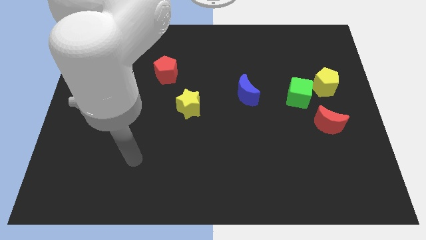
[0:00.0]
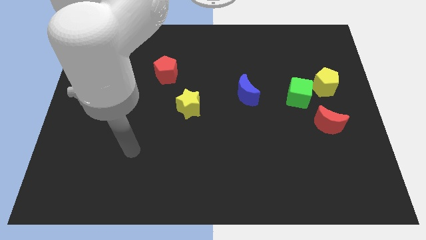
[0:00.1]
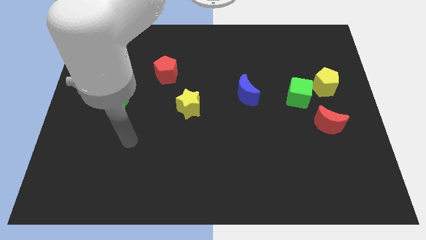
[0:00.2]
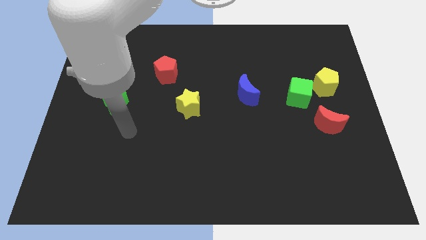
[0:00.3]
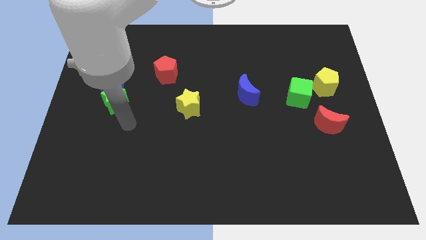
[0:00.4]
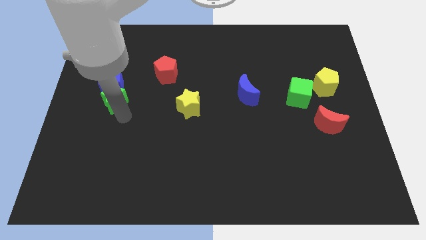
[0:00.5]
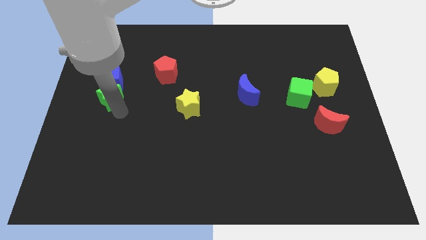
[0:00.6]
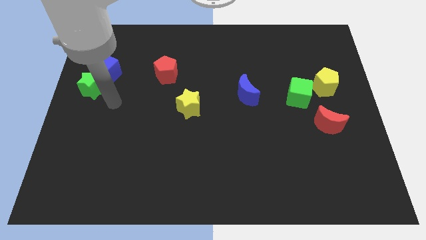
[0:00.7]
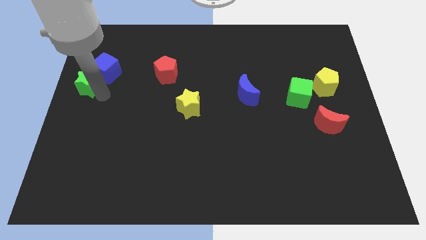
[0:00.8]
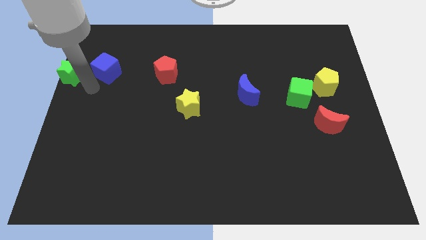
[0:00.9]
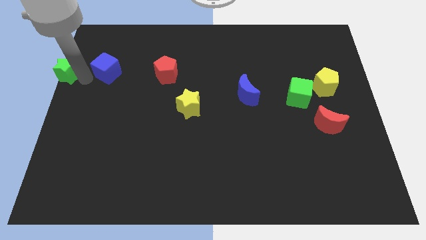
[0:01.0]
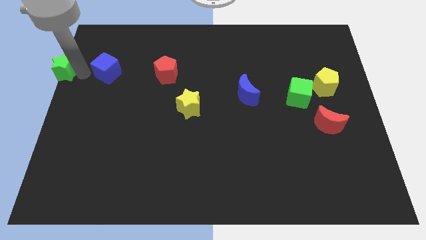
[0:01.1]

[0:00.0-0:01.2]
move the blue cube away from the green star

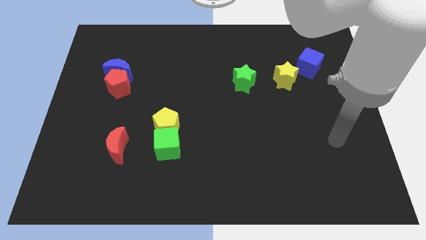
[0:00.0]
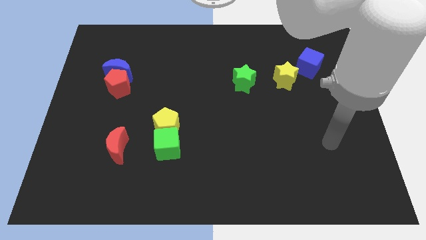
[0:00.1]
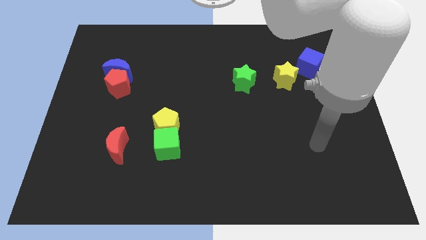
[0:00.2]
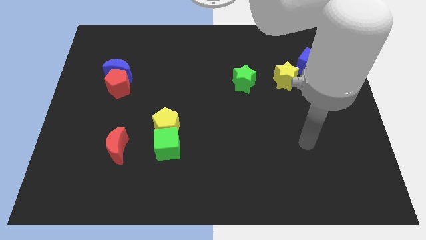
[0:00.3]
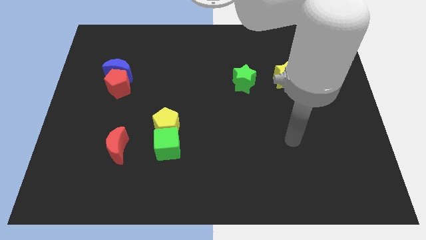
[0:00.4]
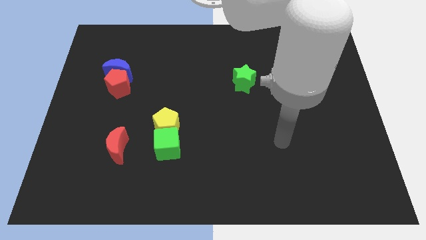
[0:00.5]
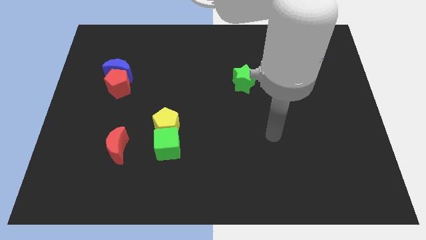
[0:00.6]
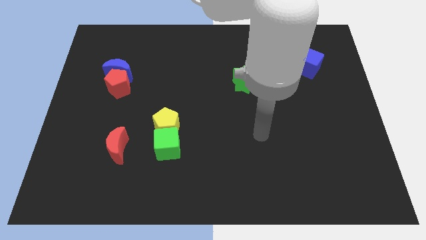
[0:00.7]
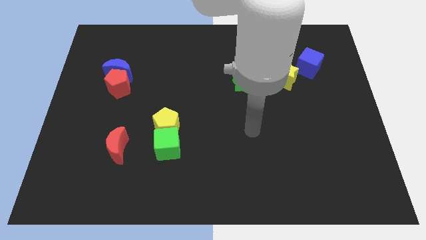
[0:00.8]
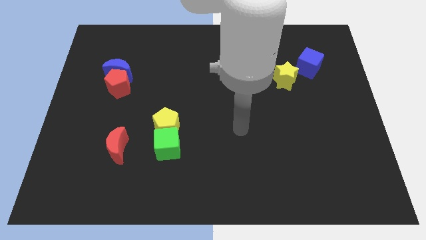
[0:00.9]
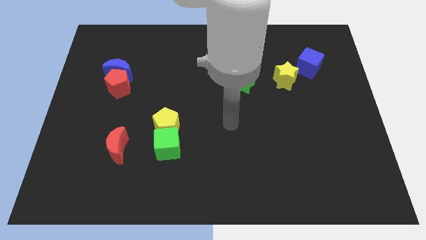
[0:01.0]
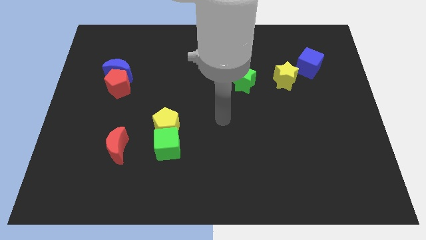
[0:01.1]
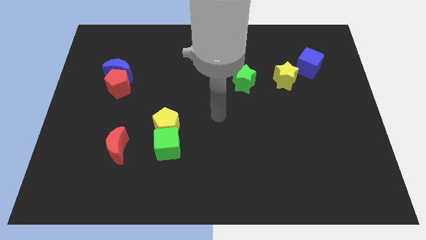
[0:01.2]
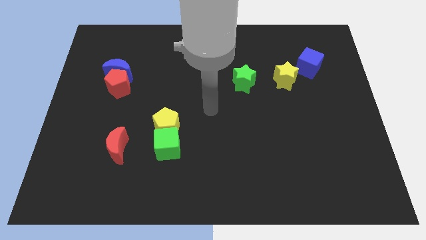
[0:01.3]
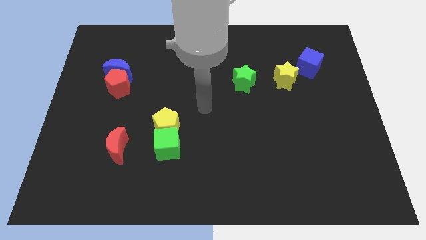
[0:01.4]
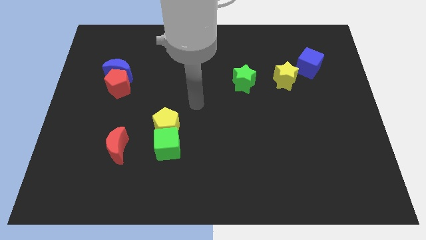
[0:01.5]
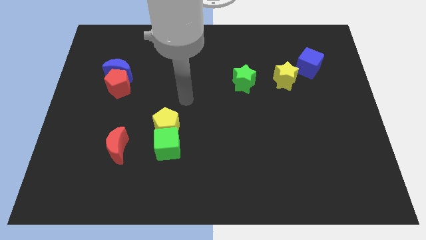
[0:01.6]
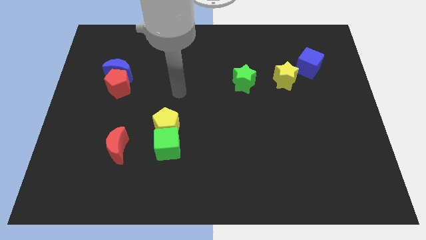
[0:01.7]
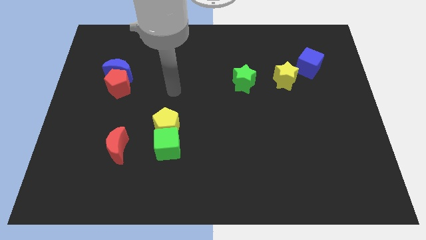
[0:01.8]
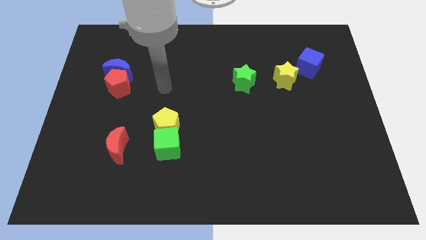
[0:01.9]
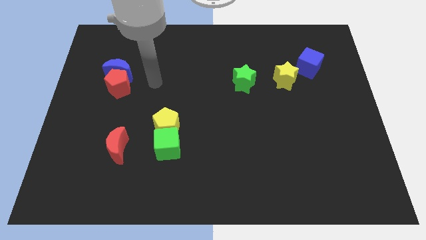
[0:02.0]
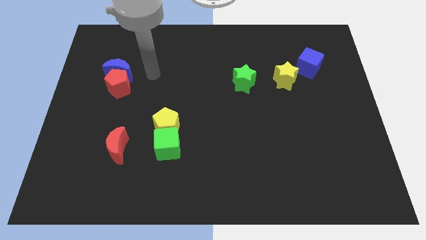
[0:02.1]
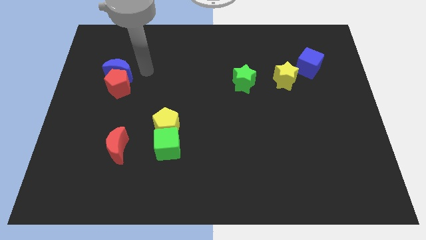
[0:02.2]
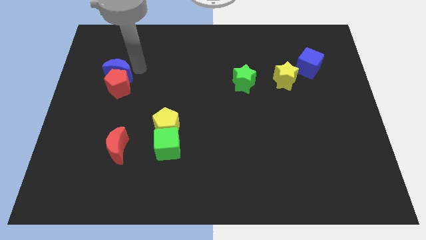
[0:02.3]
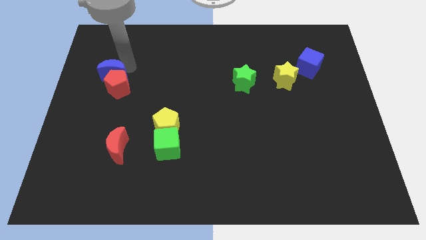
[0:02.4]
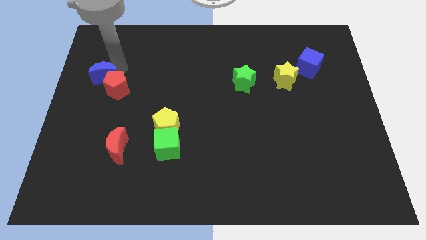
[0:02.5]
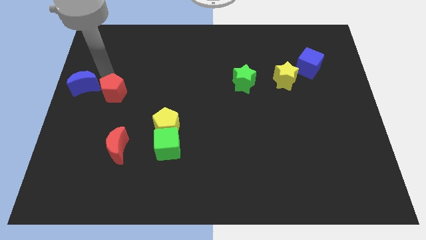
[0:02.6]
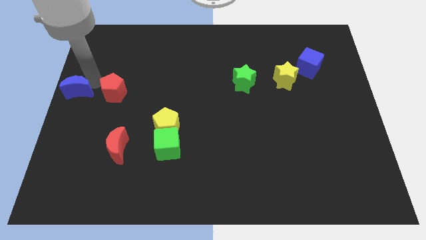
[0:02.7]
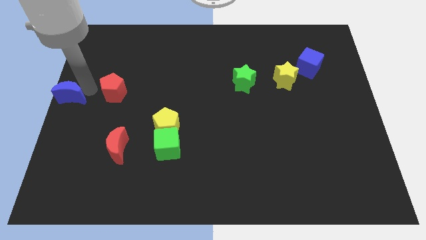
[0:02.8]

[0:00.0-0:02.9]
pull the red pentagon apart from the blue moon

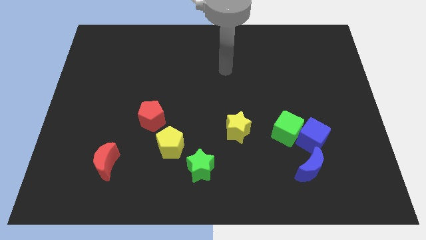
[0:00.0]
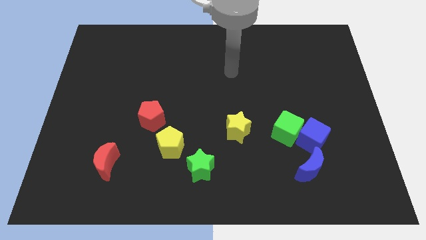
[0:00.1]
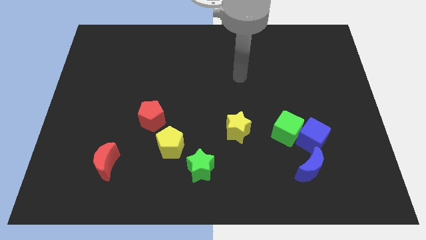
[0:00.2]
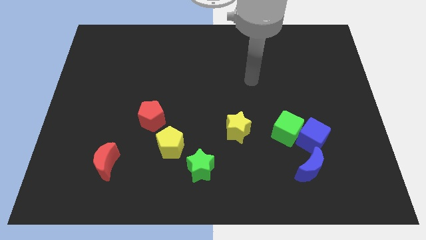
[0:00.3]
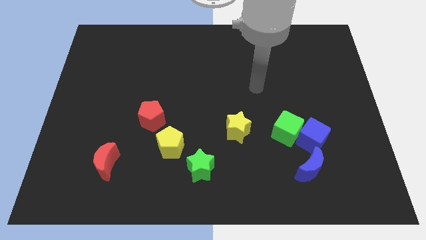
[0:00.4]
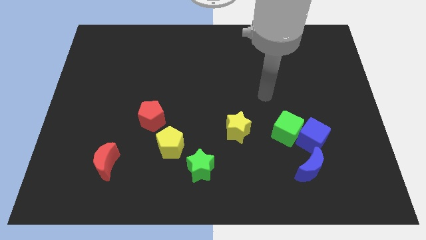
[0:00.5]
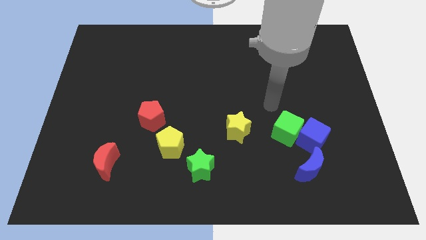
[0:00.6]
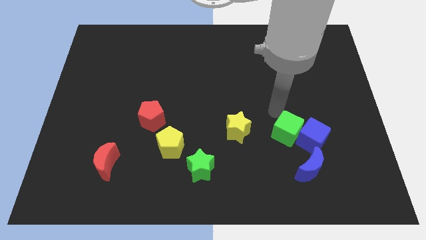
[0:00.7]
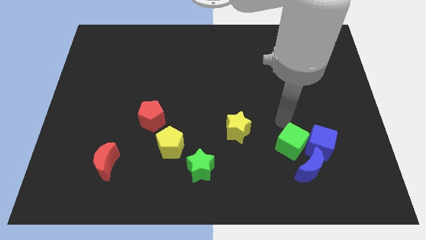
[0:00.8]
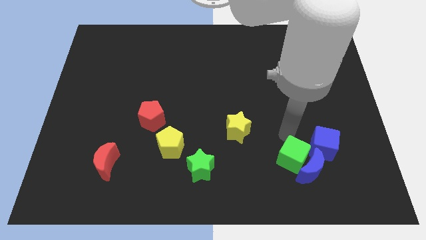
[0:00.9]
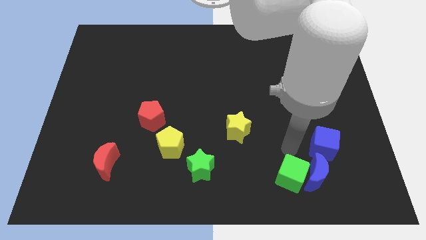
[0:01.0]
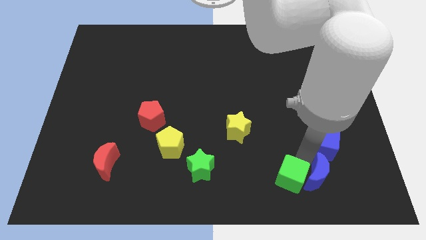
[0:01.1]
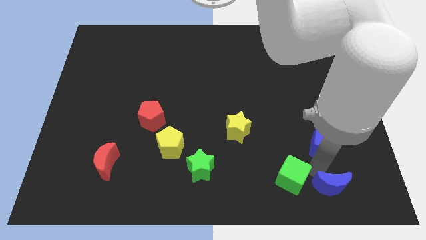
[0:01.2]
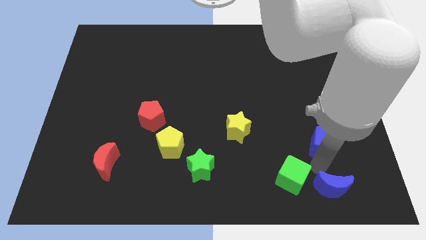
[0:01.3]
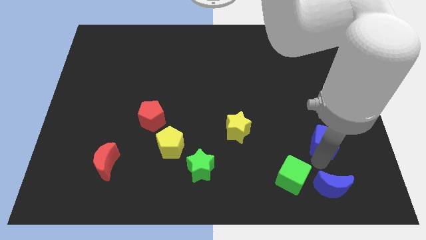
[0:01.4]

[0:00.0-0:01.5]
pull the blue cube apart from the green cube and blue moon

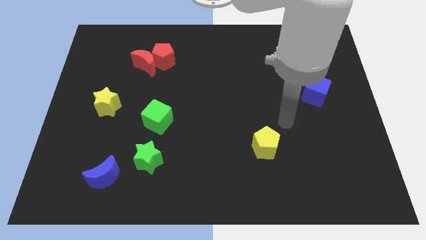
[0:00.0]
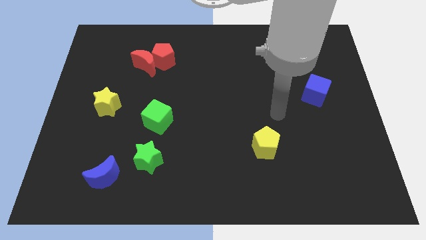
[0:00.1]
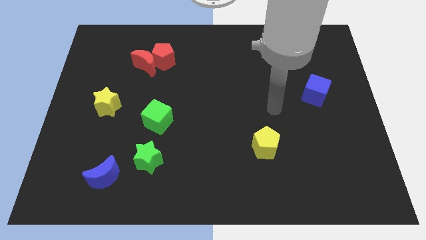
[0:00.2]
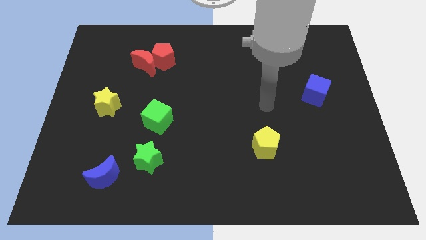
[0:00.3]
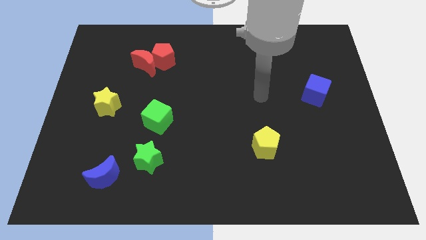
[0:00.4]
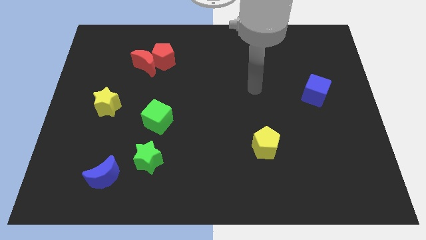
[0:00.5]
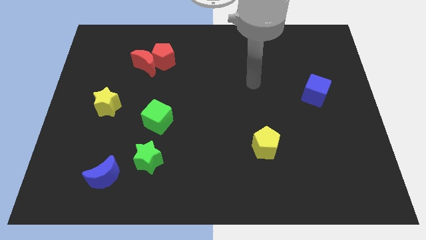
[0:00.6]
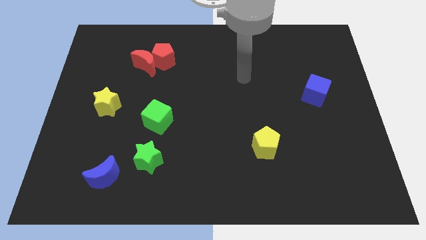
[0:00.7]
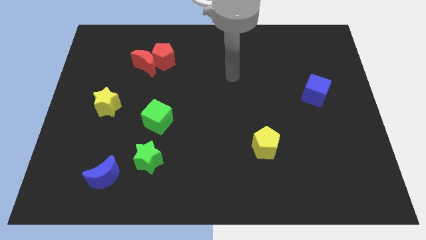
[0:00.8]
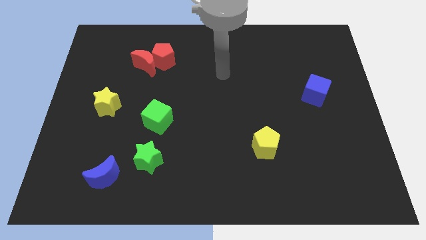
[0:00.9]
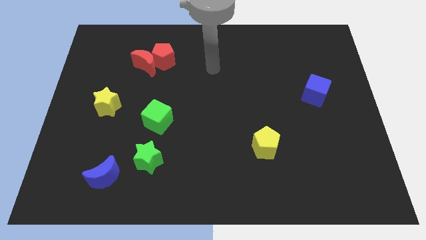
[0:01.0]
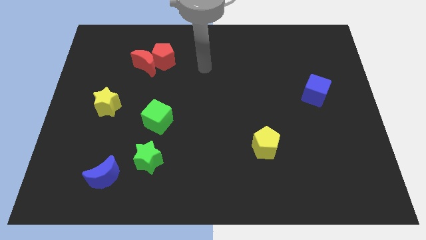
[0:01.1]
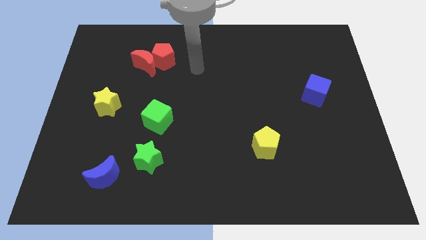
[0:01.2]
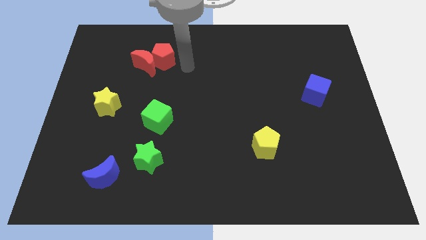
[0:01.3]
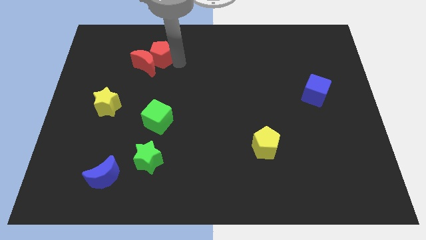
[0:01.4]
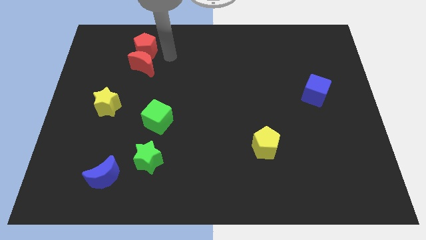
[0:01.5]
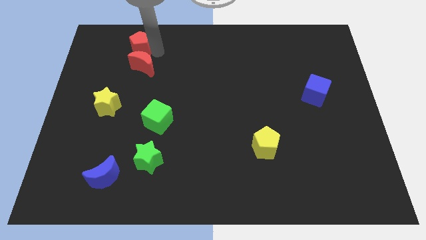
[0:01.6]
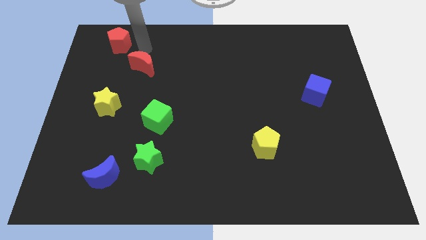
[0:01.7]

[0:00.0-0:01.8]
pull the red moon apart from the red pentagon

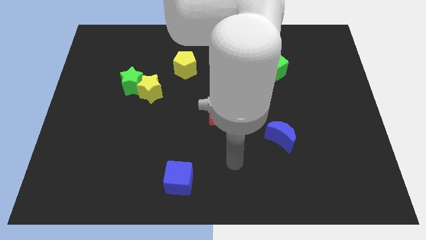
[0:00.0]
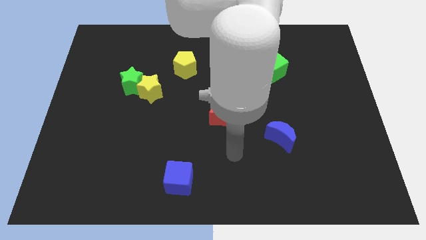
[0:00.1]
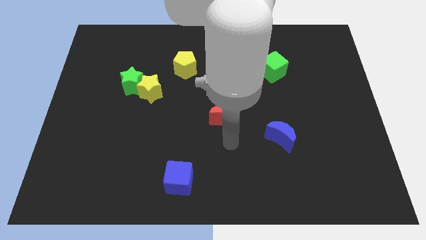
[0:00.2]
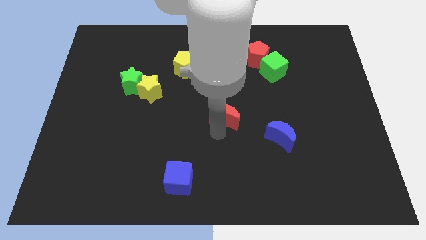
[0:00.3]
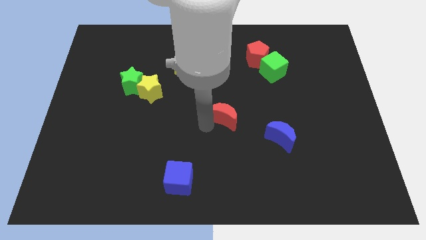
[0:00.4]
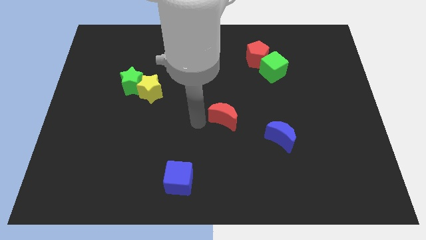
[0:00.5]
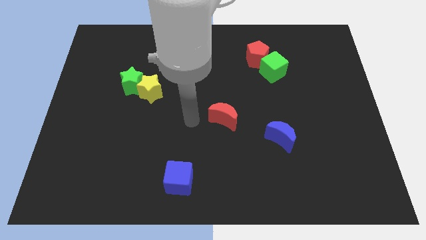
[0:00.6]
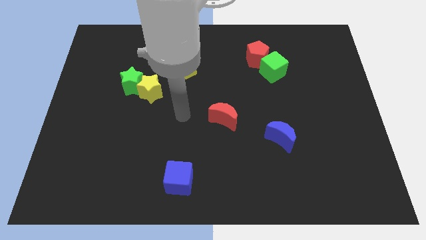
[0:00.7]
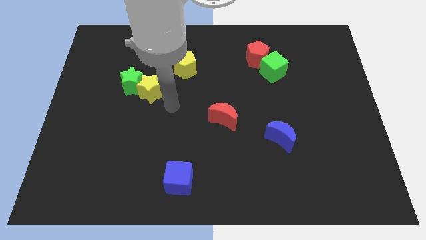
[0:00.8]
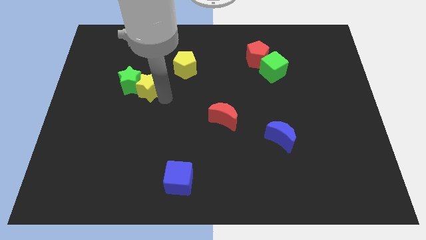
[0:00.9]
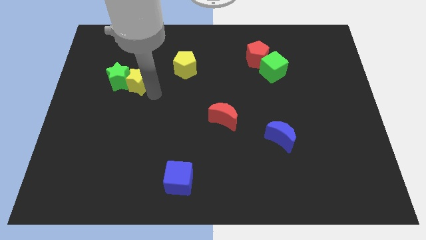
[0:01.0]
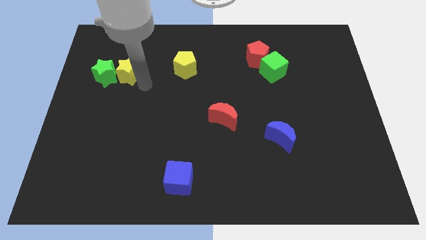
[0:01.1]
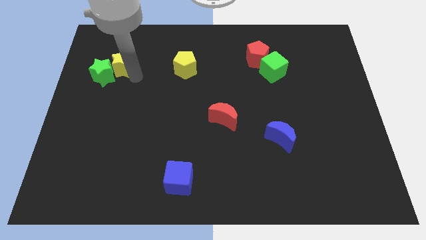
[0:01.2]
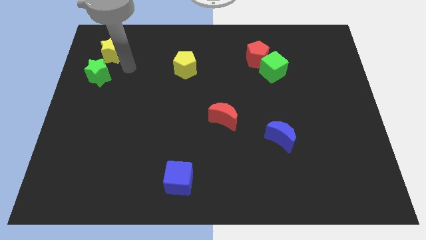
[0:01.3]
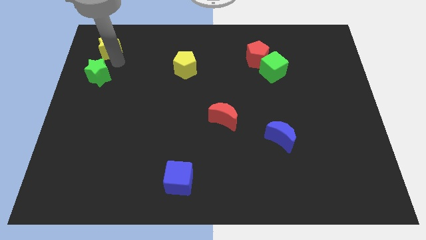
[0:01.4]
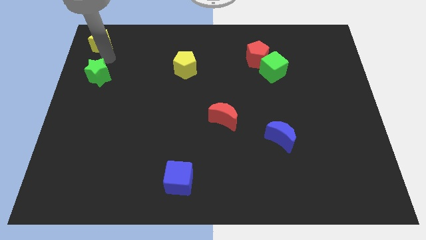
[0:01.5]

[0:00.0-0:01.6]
separate the green star from the yellow star
